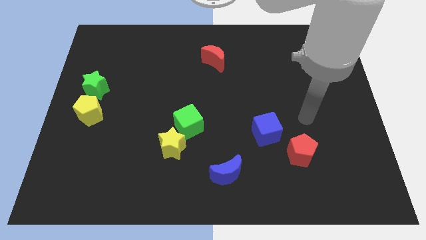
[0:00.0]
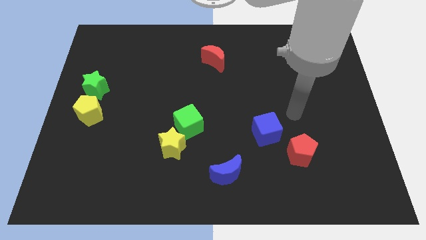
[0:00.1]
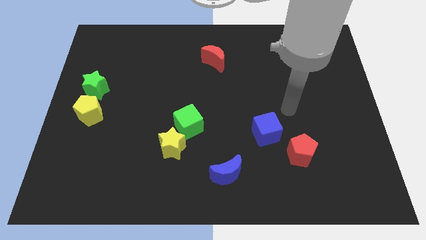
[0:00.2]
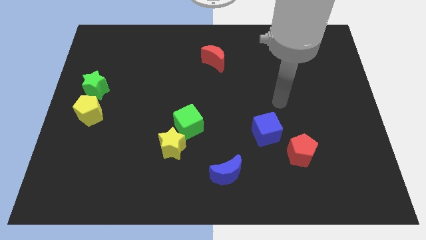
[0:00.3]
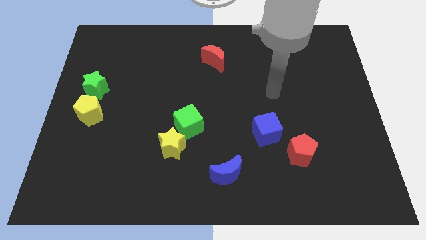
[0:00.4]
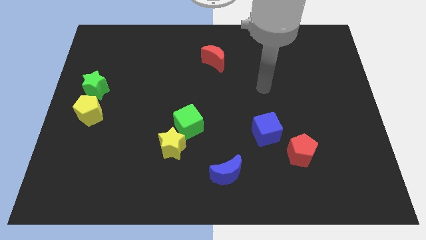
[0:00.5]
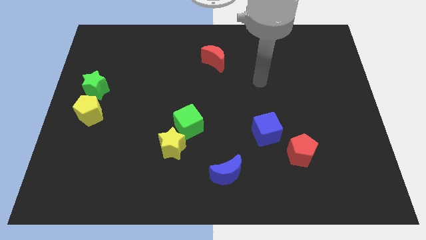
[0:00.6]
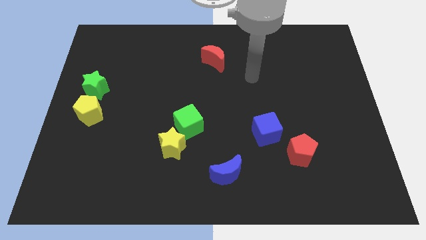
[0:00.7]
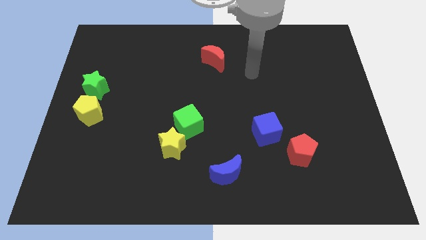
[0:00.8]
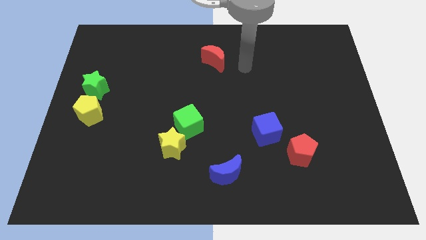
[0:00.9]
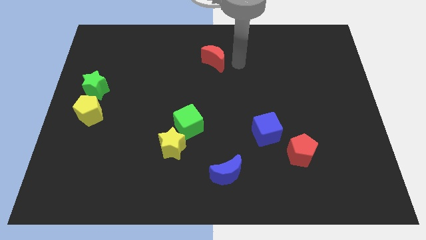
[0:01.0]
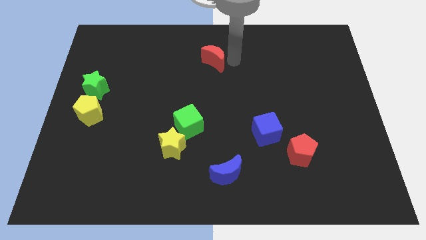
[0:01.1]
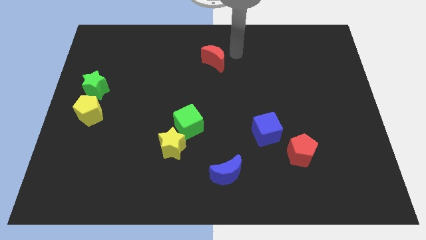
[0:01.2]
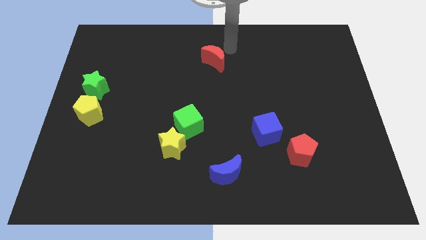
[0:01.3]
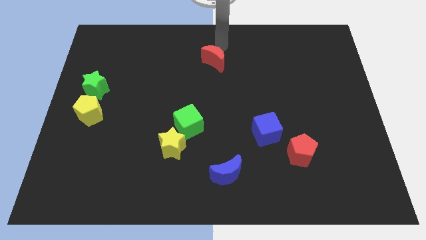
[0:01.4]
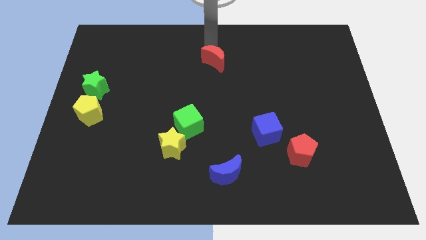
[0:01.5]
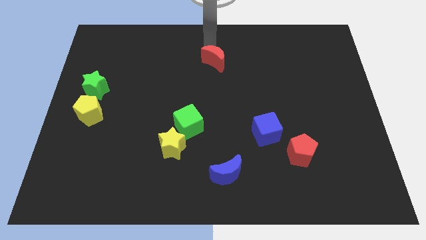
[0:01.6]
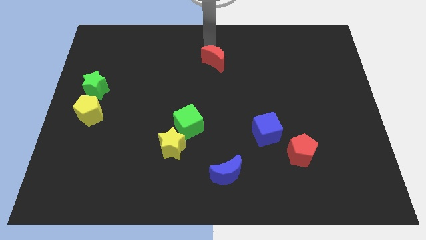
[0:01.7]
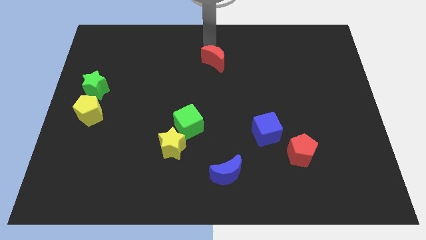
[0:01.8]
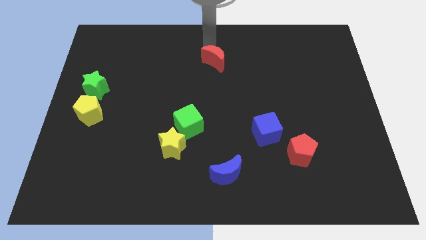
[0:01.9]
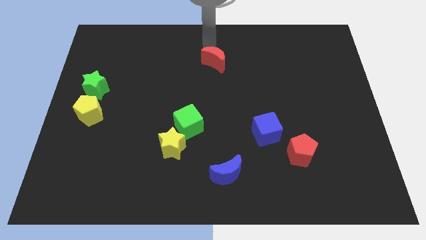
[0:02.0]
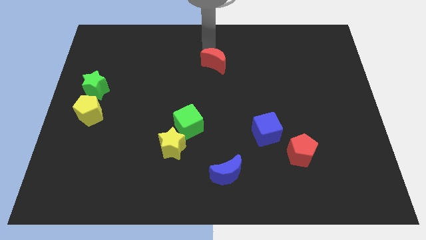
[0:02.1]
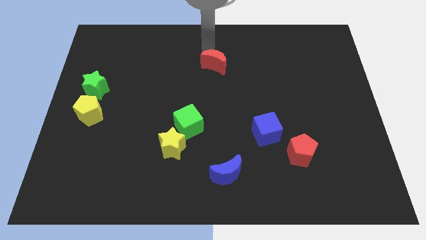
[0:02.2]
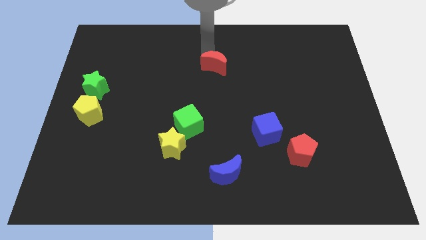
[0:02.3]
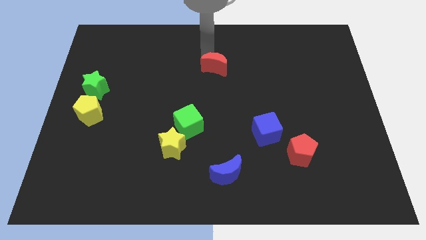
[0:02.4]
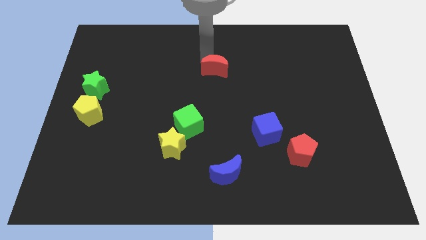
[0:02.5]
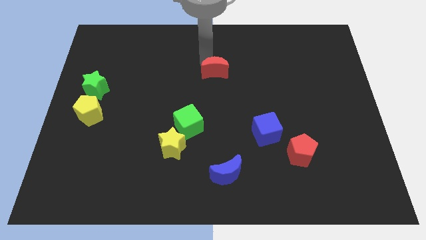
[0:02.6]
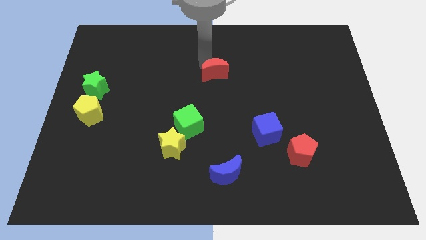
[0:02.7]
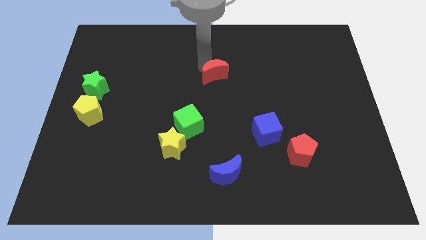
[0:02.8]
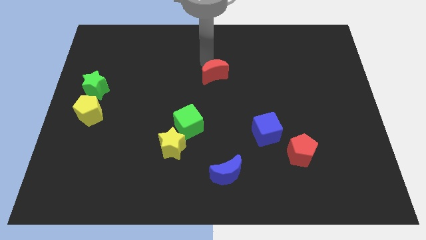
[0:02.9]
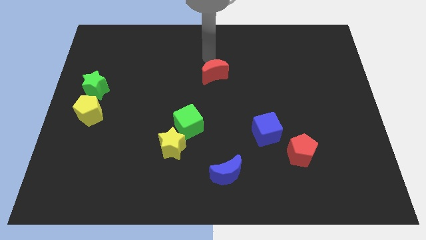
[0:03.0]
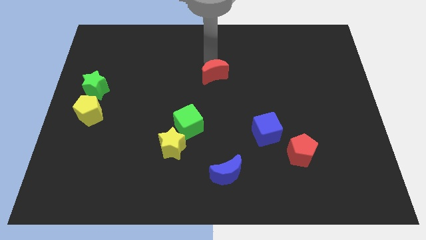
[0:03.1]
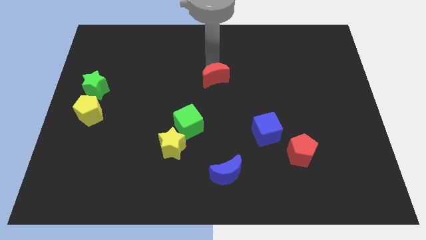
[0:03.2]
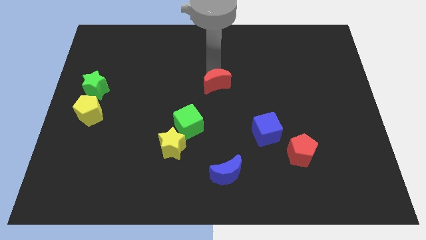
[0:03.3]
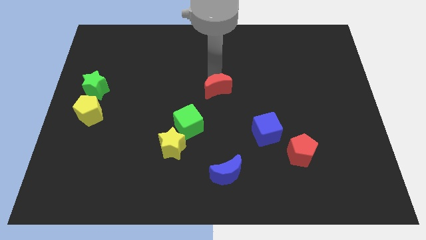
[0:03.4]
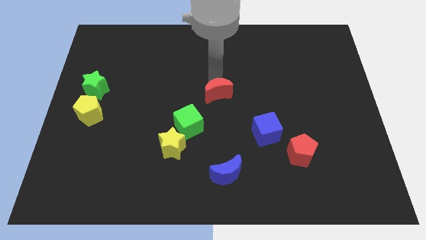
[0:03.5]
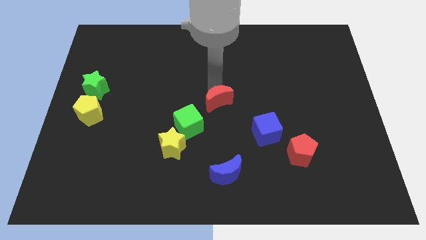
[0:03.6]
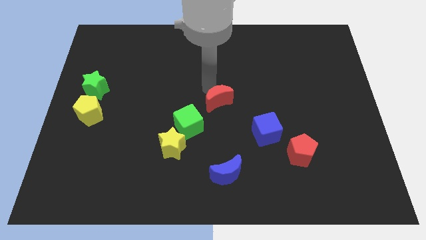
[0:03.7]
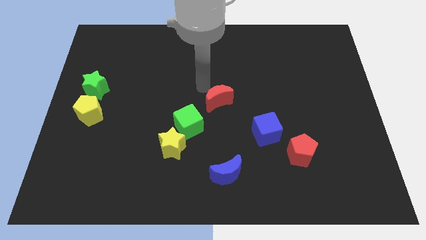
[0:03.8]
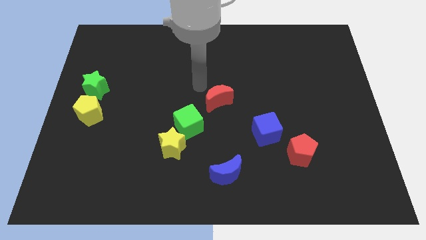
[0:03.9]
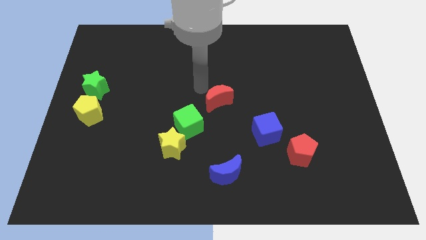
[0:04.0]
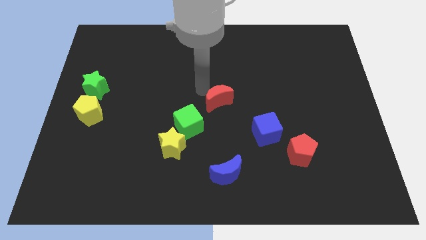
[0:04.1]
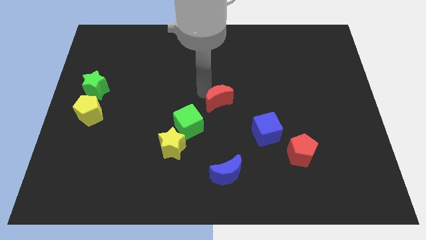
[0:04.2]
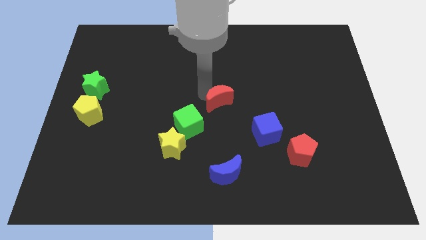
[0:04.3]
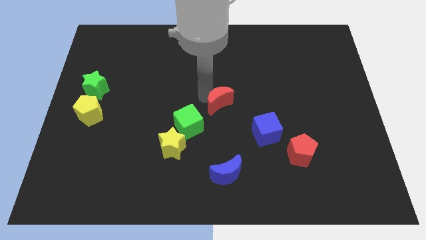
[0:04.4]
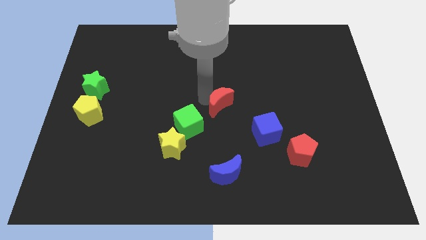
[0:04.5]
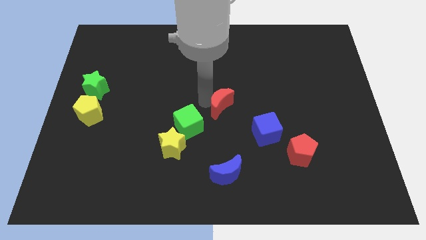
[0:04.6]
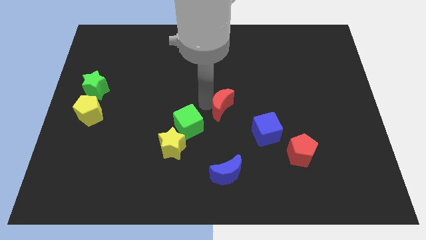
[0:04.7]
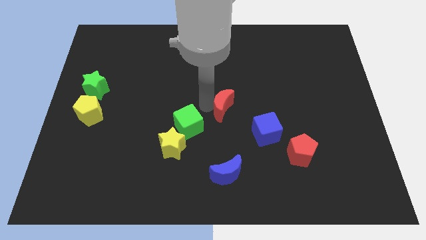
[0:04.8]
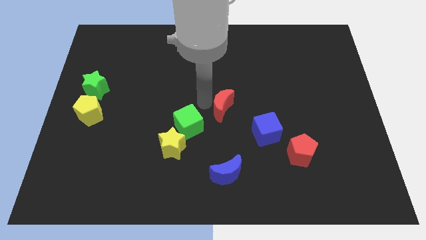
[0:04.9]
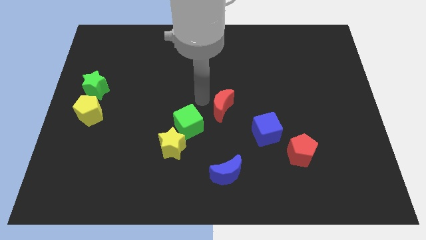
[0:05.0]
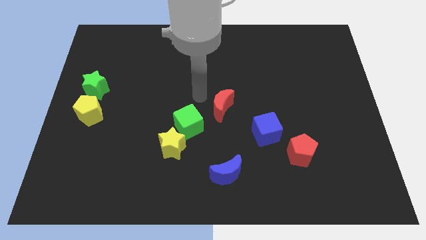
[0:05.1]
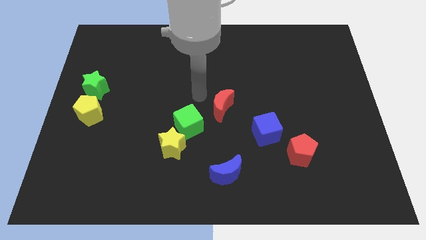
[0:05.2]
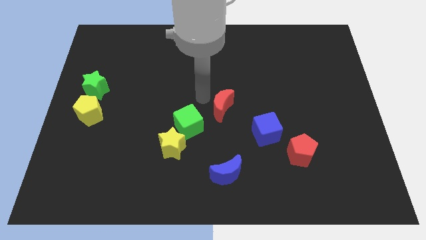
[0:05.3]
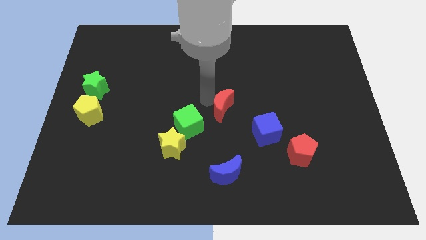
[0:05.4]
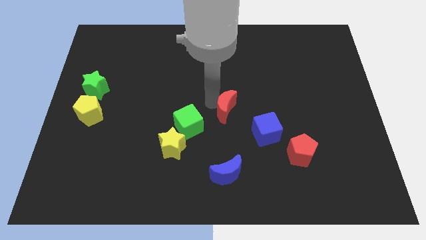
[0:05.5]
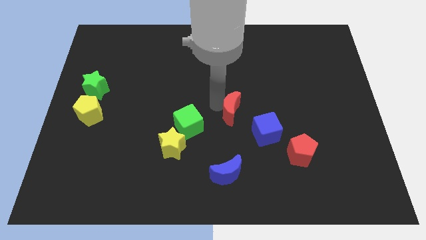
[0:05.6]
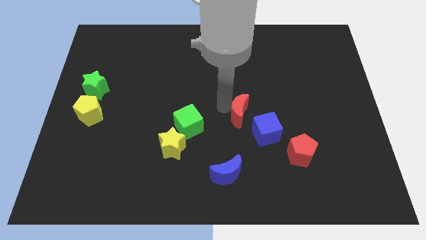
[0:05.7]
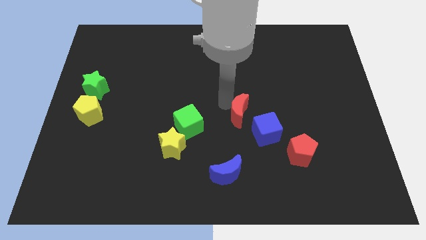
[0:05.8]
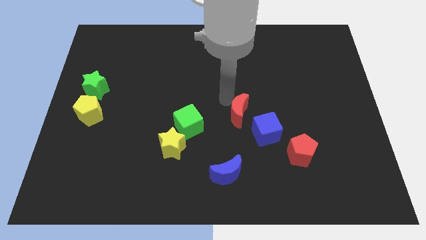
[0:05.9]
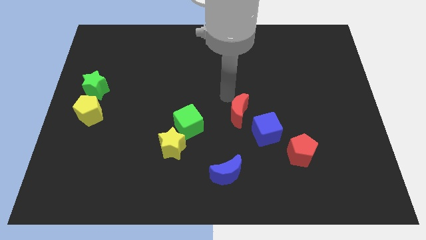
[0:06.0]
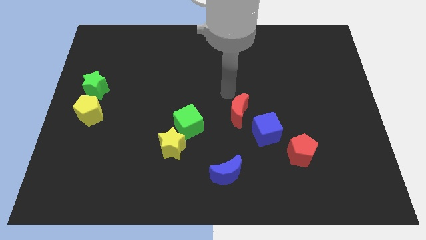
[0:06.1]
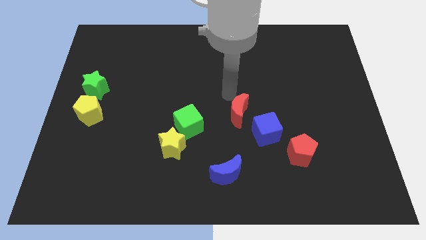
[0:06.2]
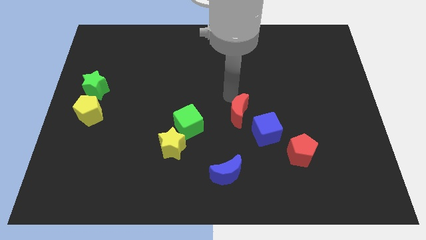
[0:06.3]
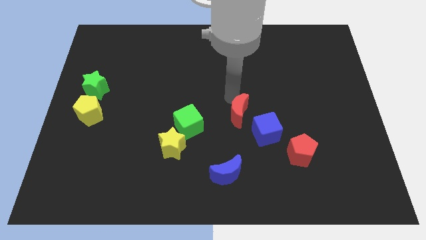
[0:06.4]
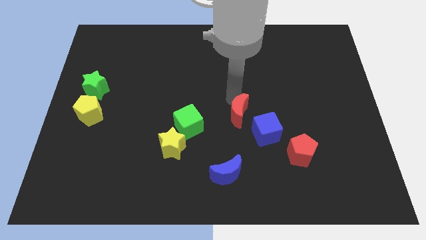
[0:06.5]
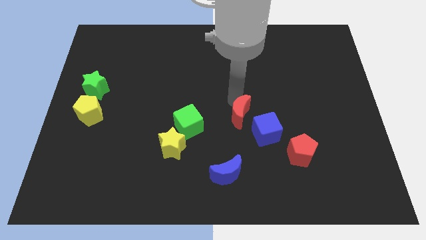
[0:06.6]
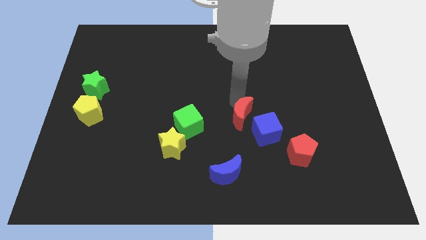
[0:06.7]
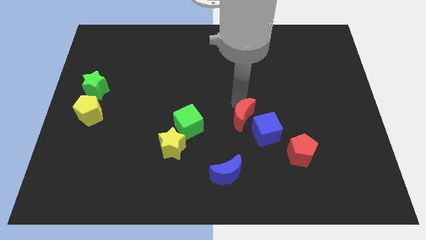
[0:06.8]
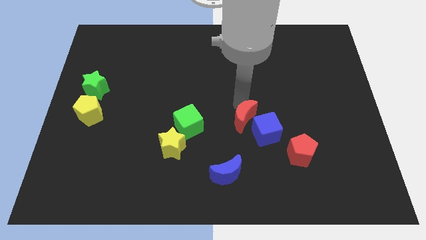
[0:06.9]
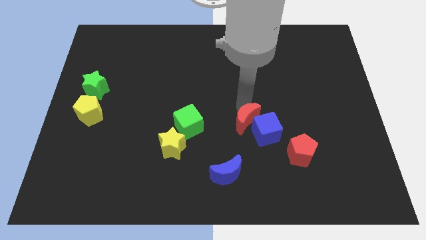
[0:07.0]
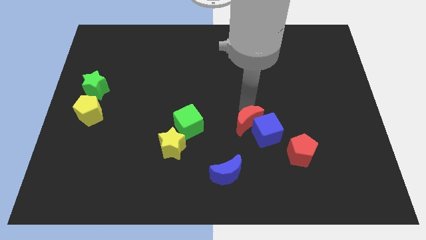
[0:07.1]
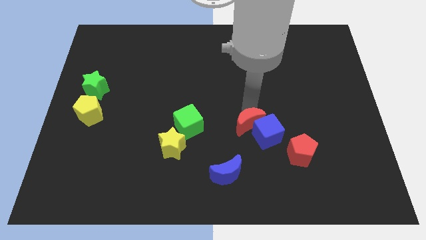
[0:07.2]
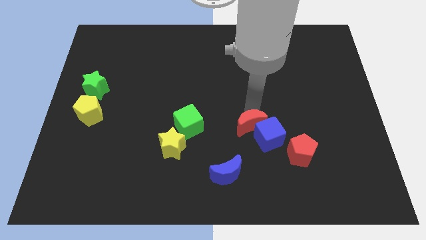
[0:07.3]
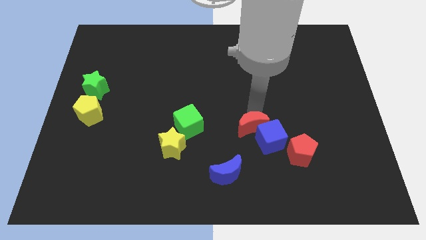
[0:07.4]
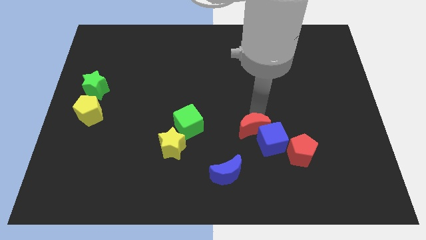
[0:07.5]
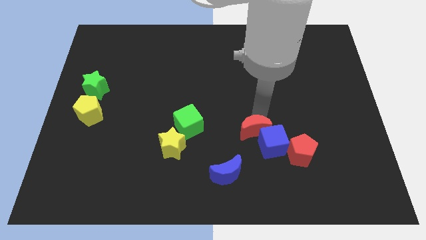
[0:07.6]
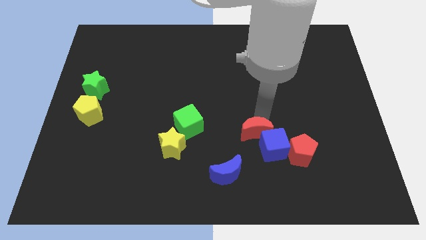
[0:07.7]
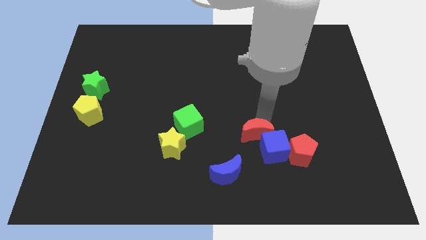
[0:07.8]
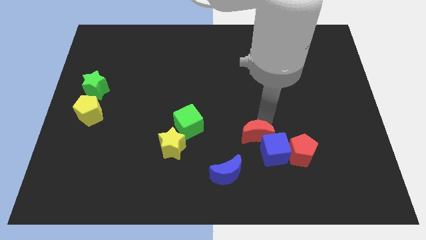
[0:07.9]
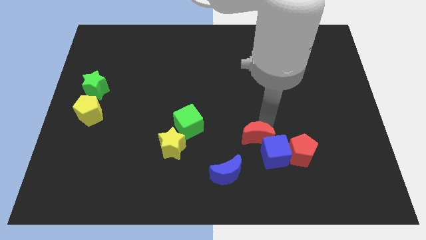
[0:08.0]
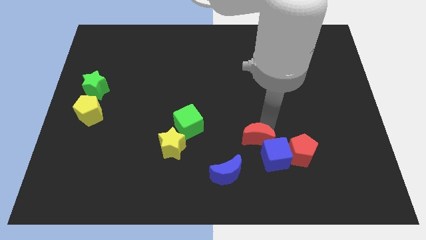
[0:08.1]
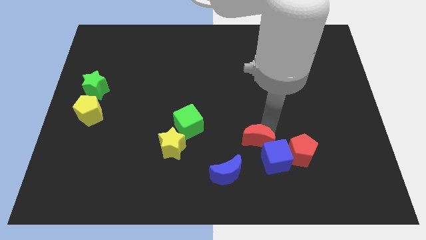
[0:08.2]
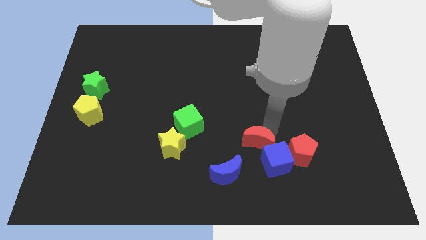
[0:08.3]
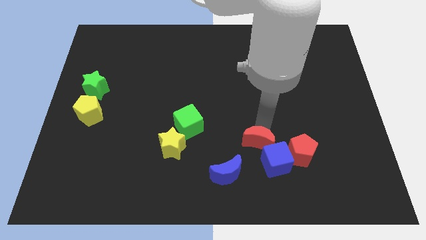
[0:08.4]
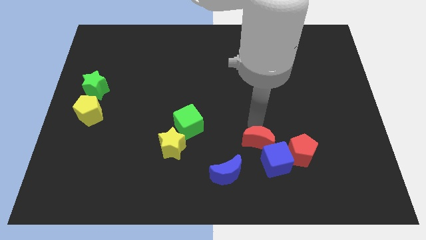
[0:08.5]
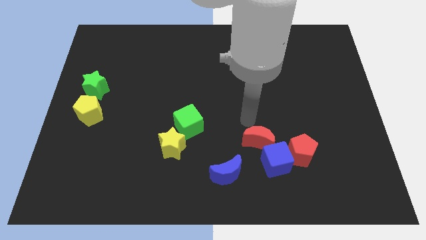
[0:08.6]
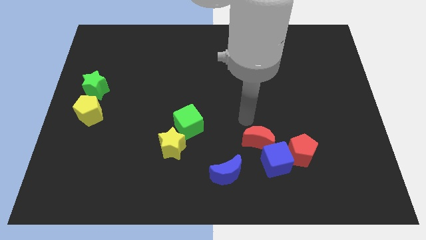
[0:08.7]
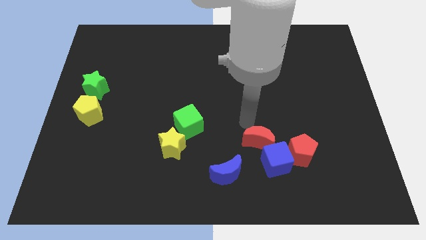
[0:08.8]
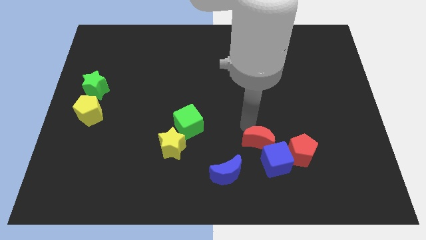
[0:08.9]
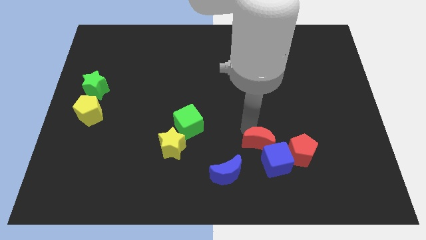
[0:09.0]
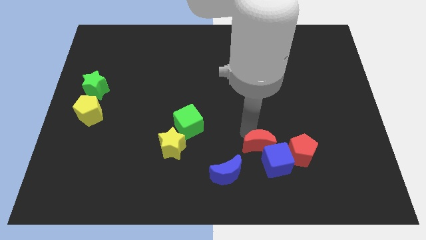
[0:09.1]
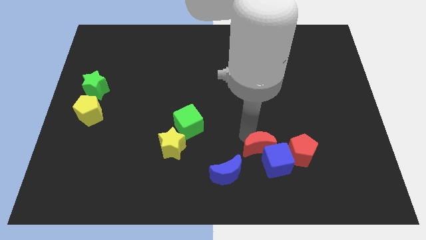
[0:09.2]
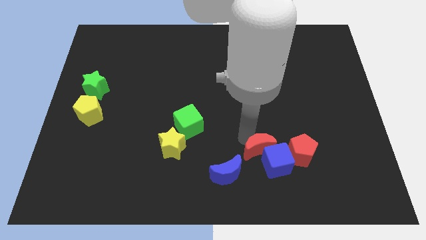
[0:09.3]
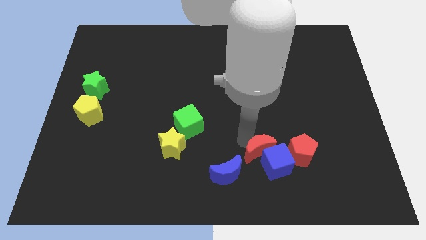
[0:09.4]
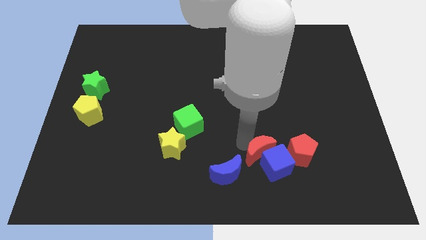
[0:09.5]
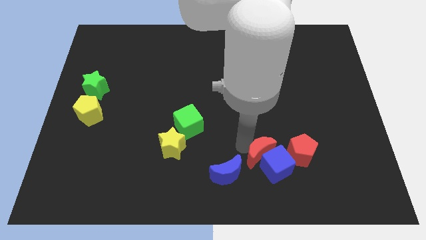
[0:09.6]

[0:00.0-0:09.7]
move the red moon right of the blue moon
